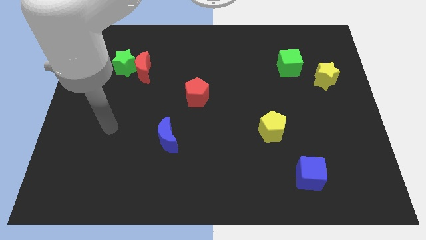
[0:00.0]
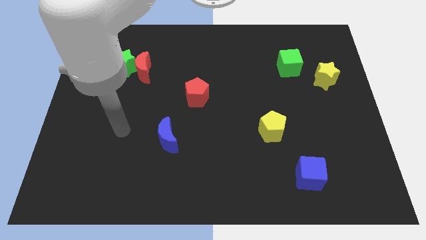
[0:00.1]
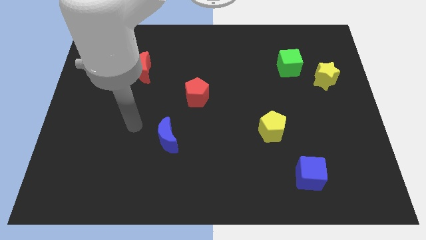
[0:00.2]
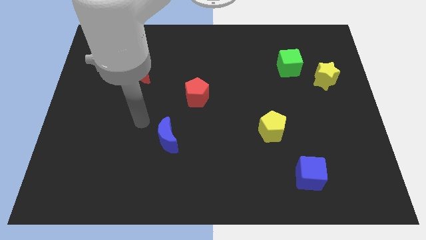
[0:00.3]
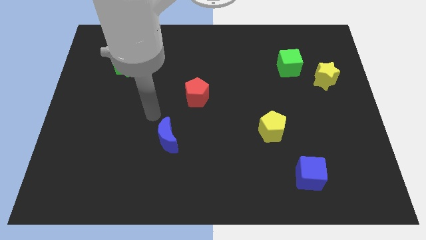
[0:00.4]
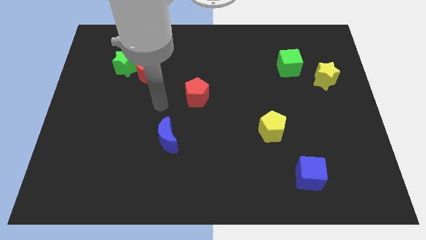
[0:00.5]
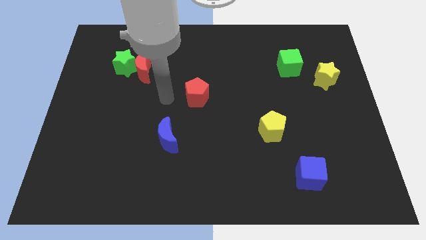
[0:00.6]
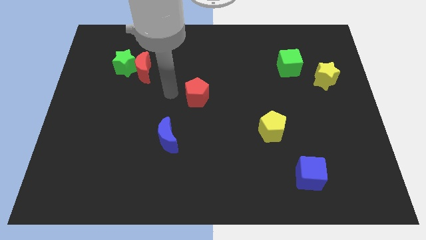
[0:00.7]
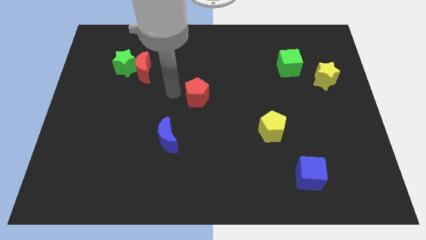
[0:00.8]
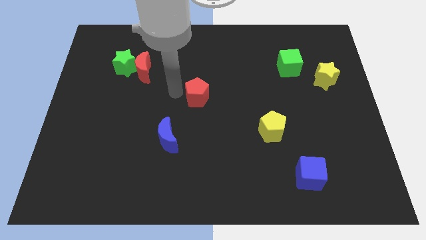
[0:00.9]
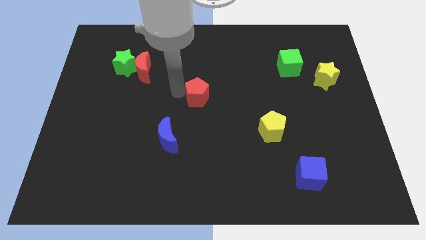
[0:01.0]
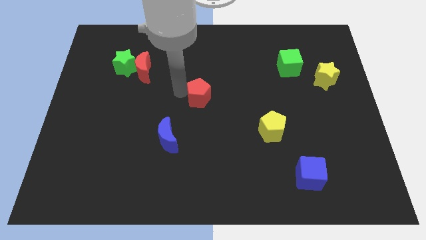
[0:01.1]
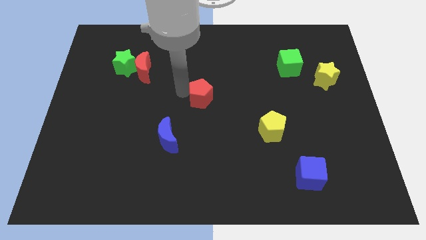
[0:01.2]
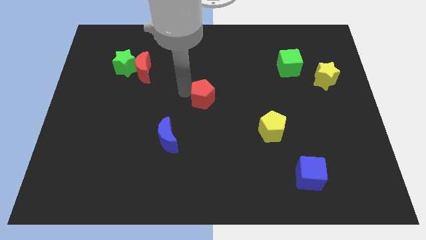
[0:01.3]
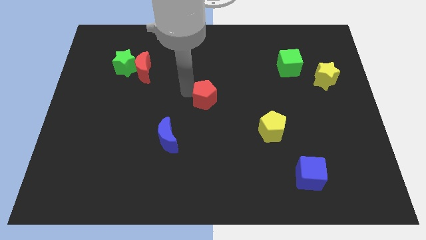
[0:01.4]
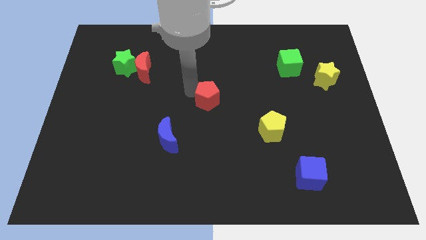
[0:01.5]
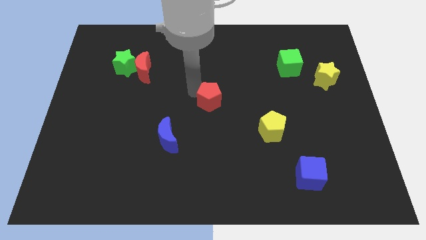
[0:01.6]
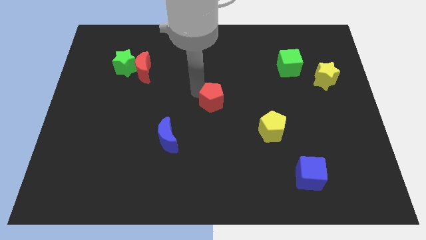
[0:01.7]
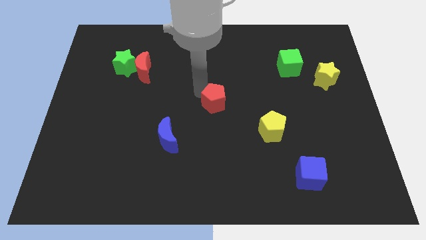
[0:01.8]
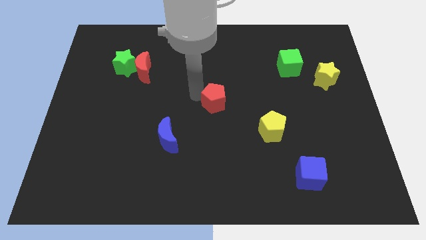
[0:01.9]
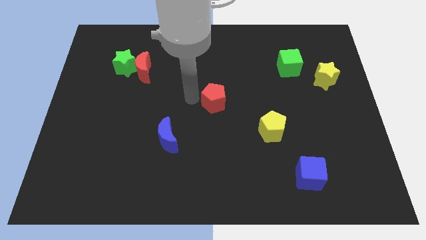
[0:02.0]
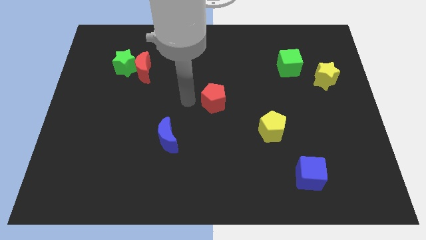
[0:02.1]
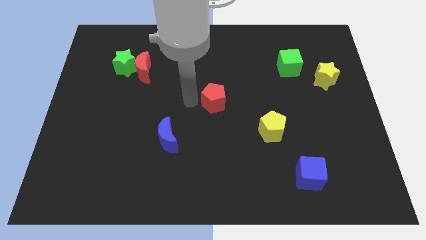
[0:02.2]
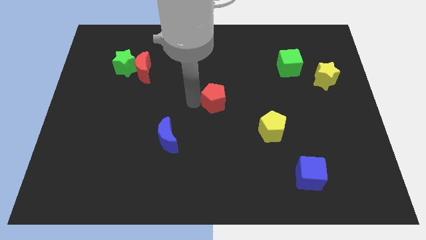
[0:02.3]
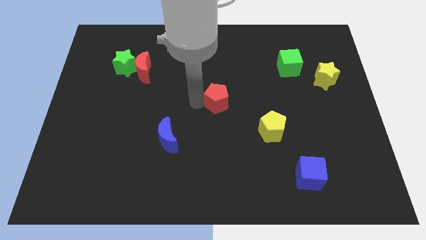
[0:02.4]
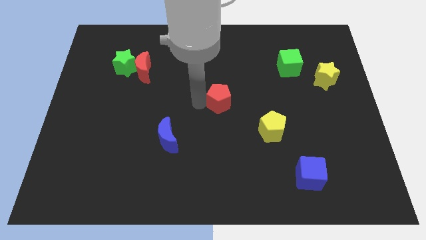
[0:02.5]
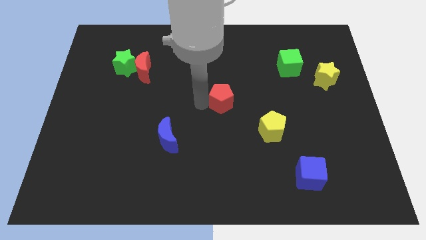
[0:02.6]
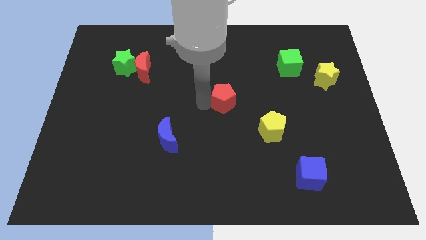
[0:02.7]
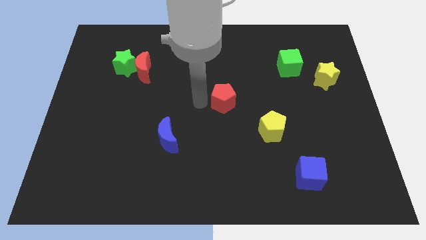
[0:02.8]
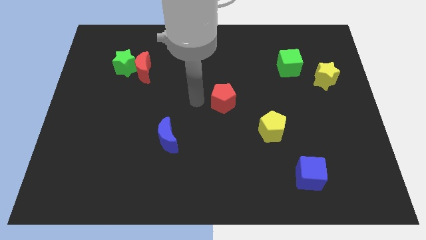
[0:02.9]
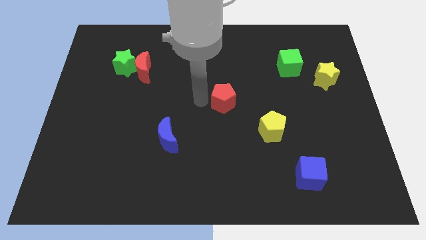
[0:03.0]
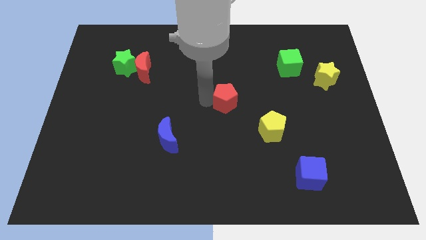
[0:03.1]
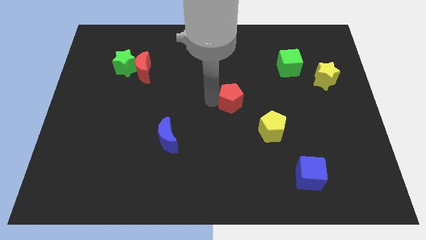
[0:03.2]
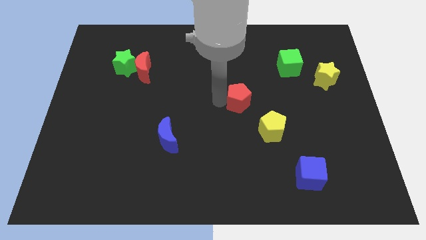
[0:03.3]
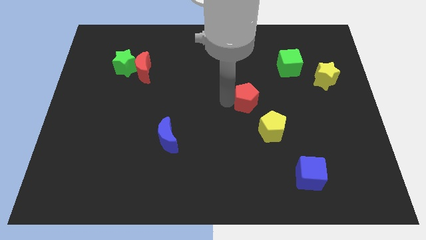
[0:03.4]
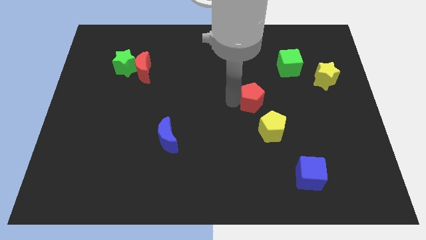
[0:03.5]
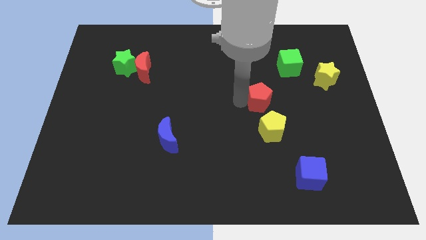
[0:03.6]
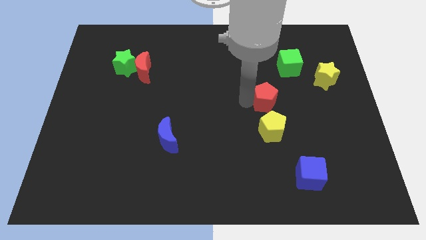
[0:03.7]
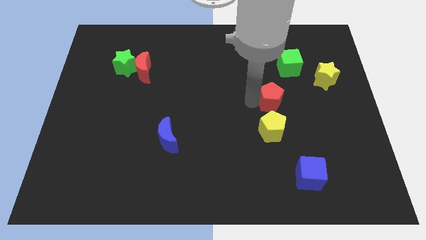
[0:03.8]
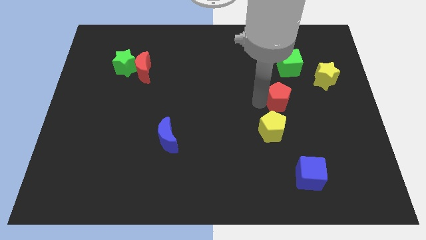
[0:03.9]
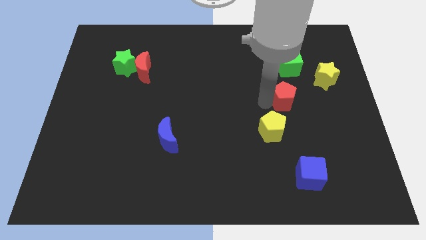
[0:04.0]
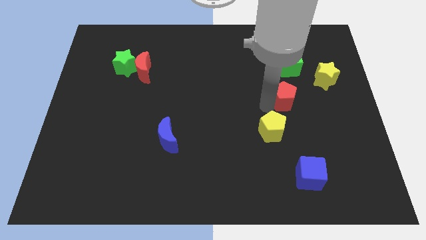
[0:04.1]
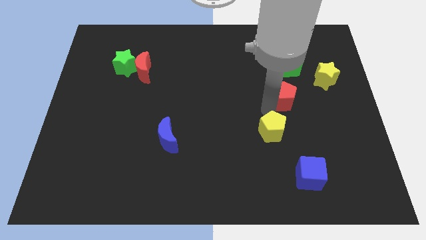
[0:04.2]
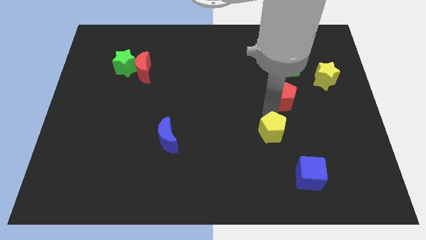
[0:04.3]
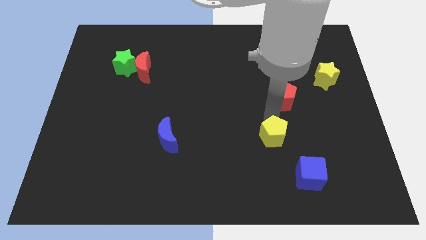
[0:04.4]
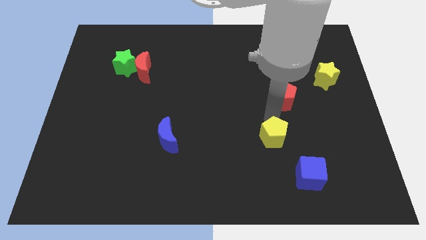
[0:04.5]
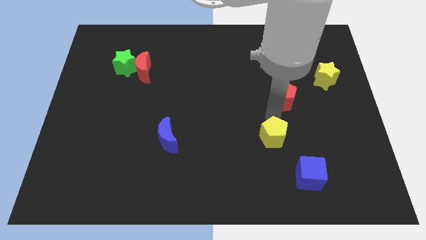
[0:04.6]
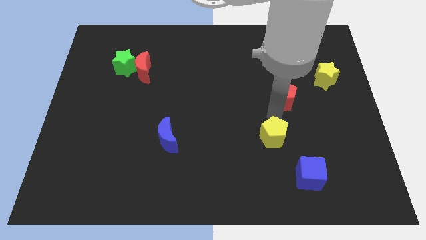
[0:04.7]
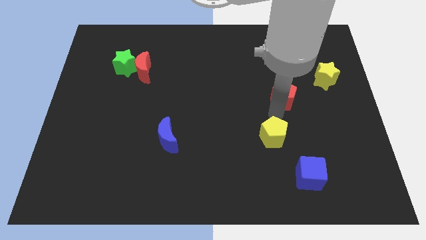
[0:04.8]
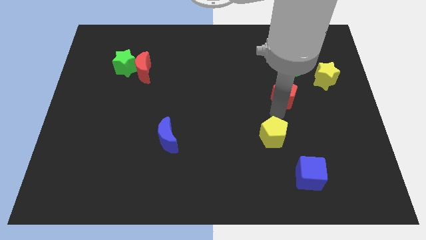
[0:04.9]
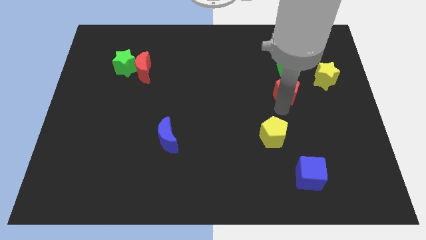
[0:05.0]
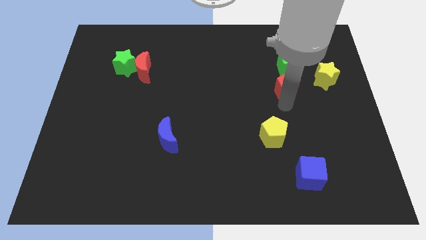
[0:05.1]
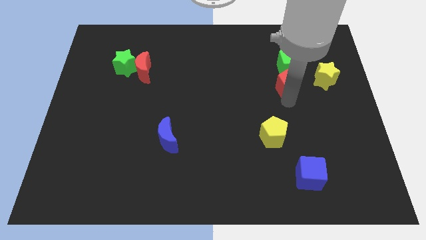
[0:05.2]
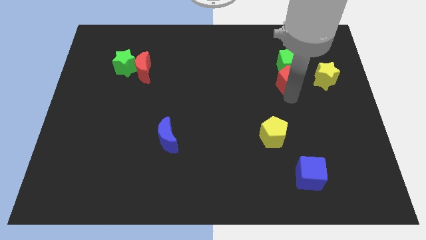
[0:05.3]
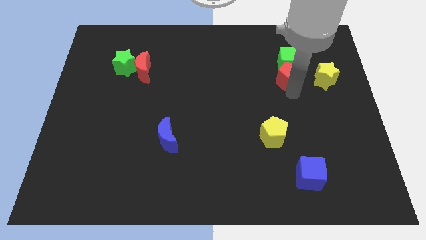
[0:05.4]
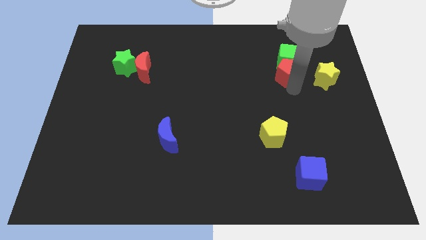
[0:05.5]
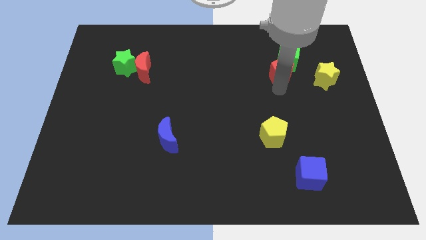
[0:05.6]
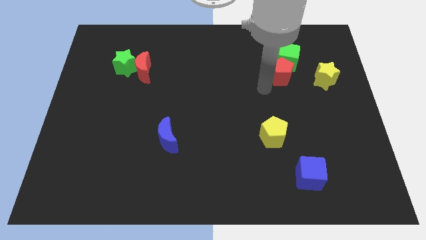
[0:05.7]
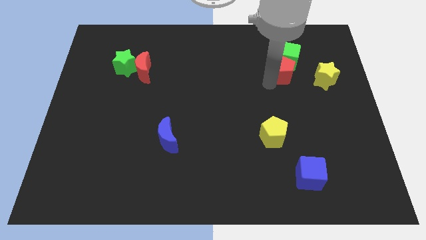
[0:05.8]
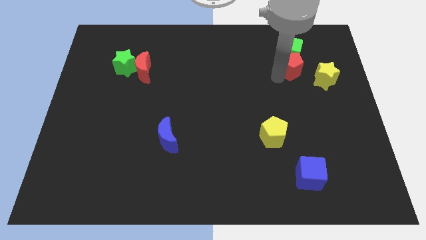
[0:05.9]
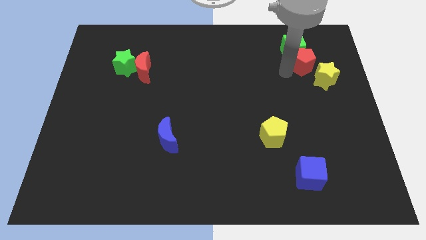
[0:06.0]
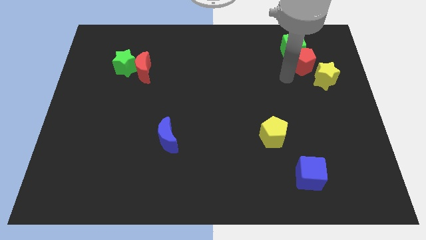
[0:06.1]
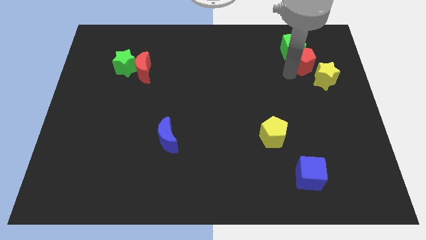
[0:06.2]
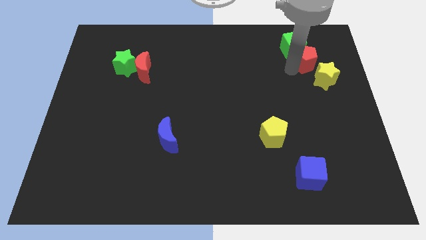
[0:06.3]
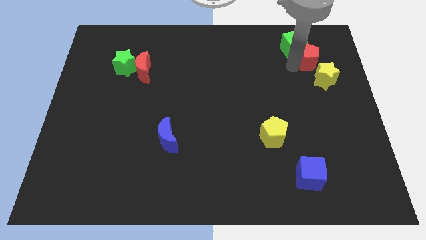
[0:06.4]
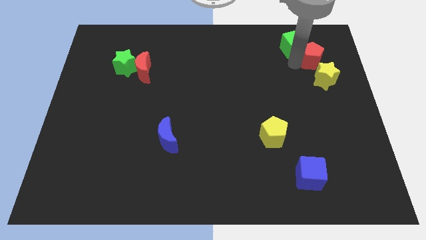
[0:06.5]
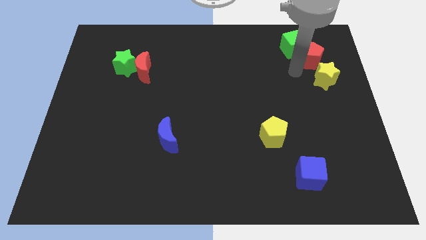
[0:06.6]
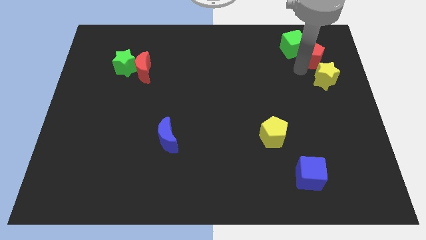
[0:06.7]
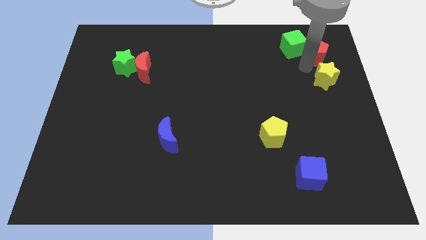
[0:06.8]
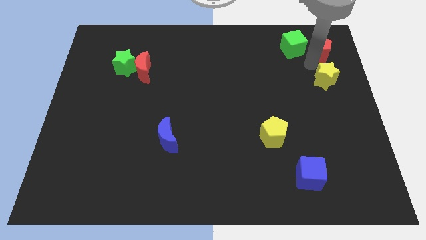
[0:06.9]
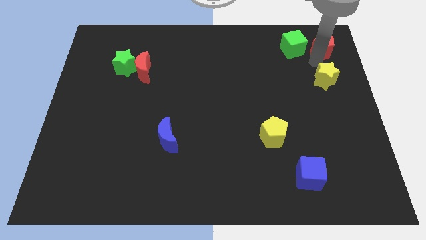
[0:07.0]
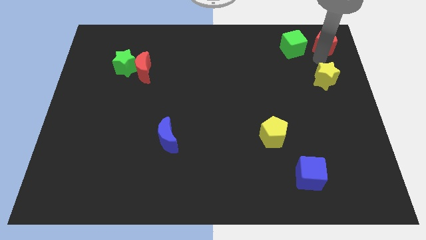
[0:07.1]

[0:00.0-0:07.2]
push the red pentagon to the upper right corner
